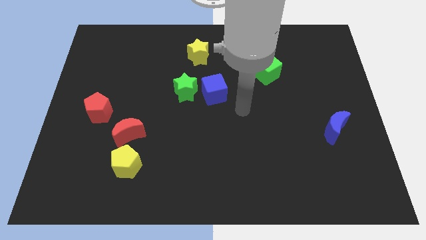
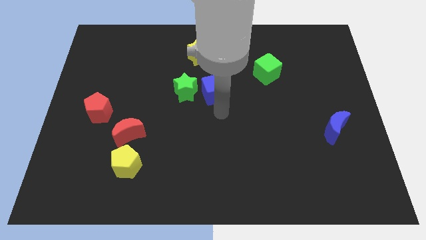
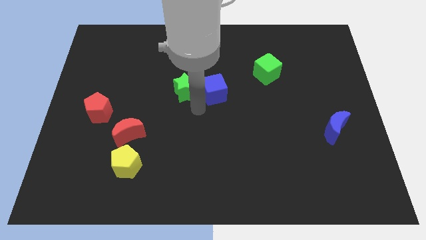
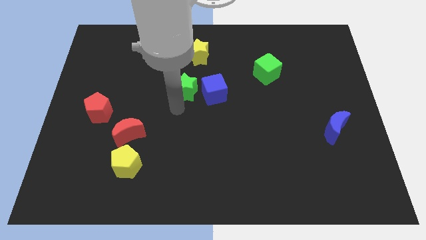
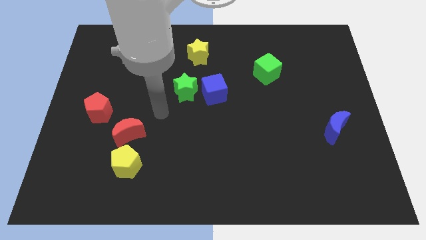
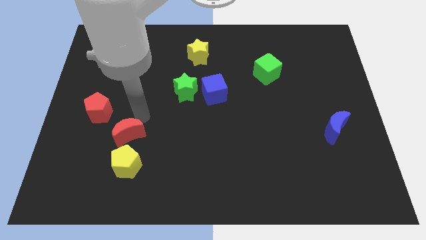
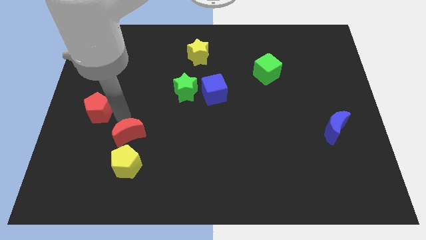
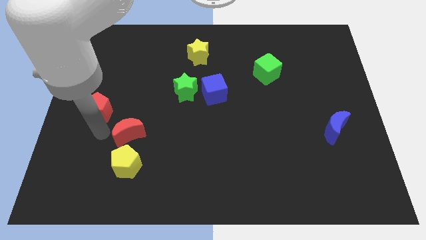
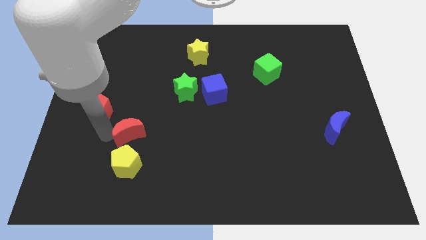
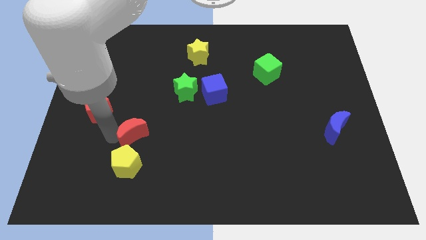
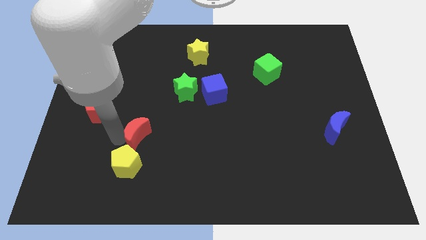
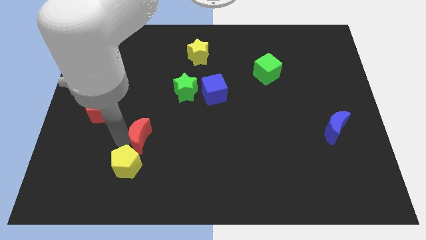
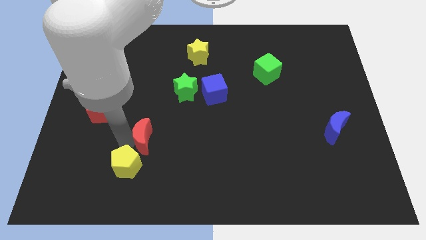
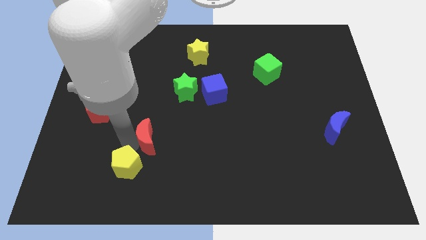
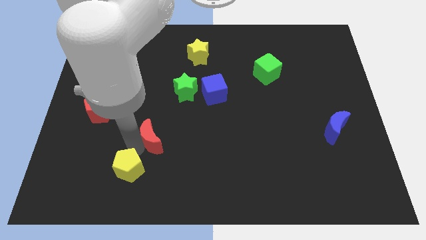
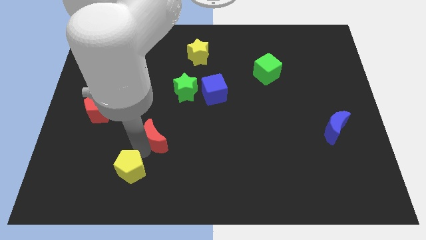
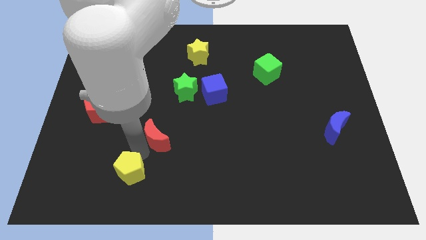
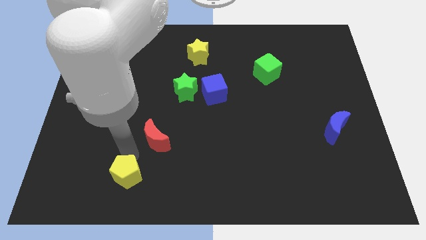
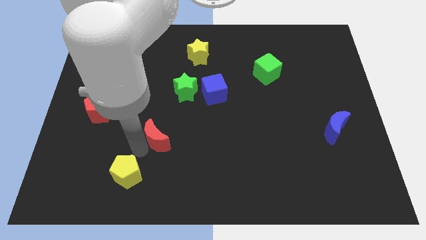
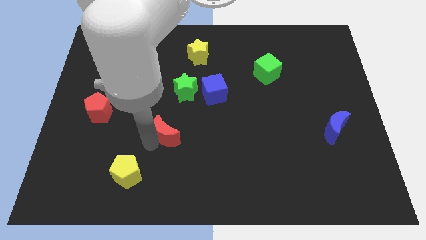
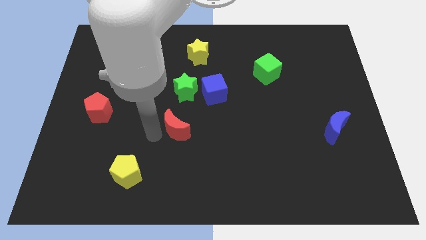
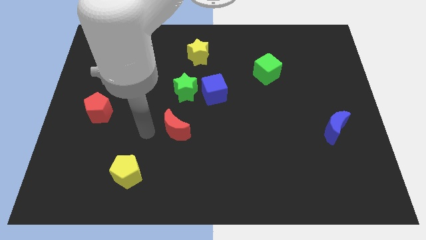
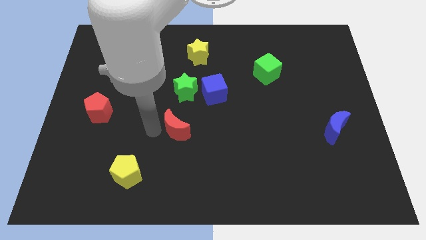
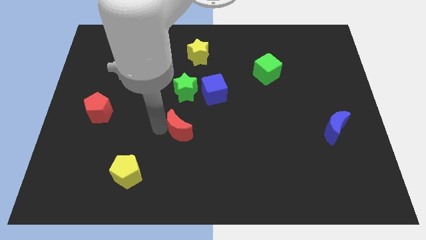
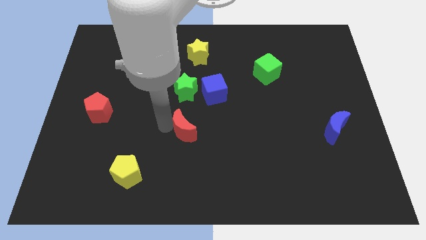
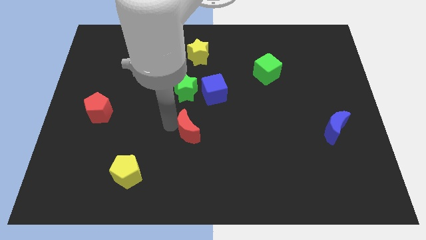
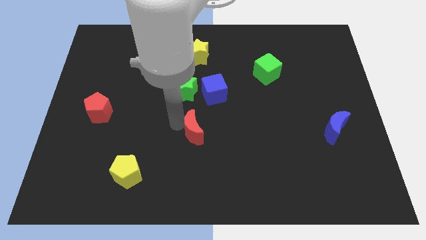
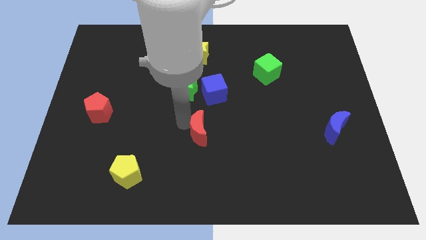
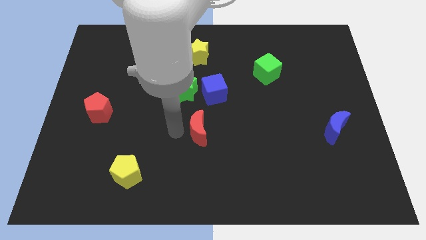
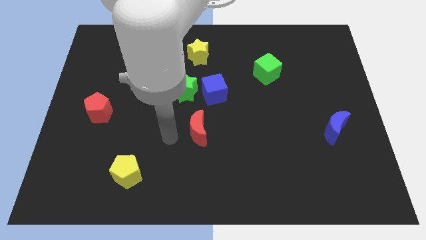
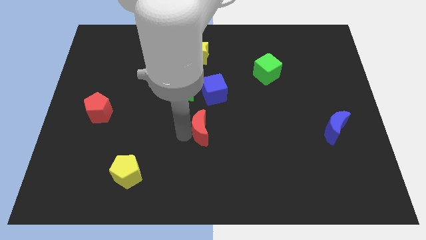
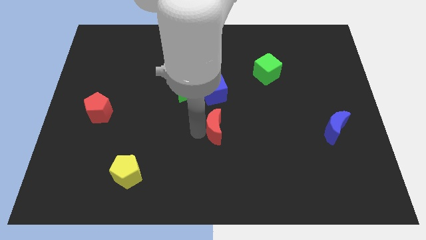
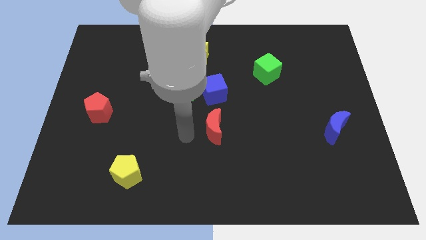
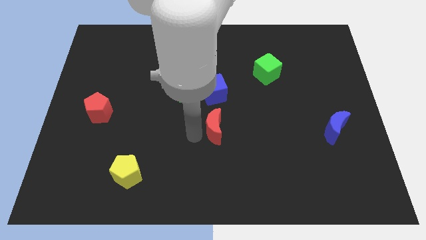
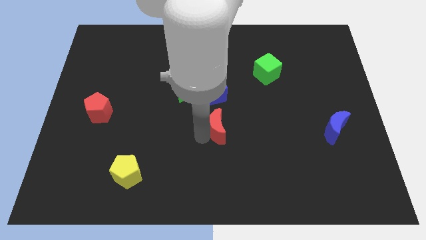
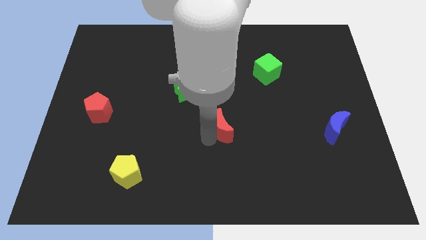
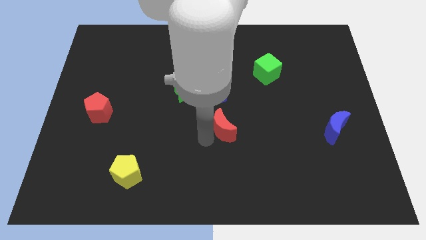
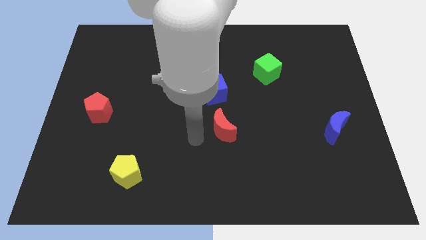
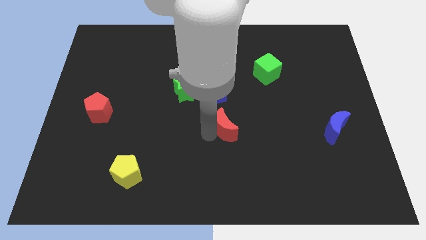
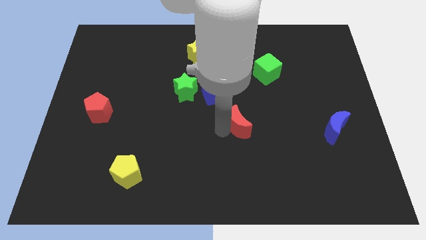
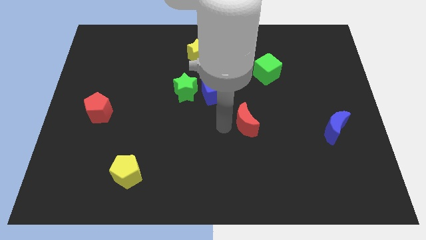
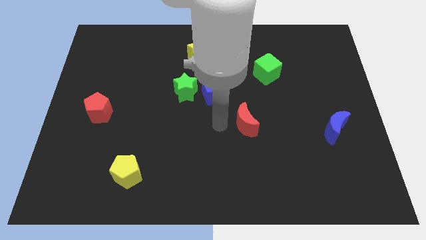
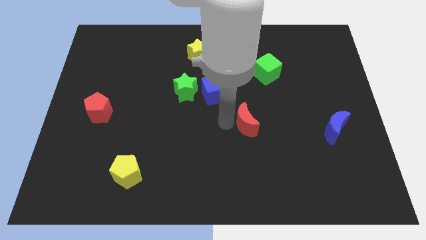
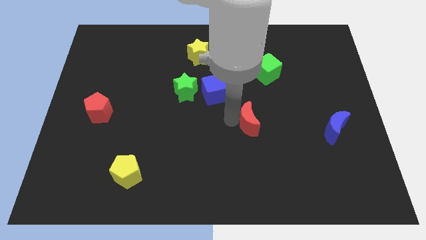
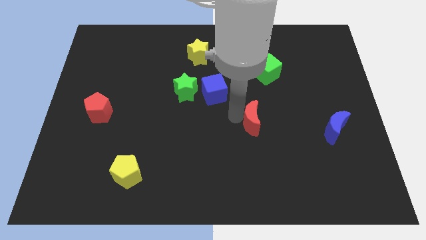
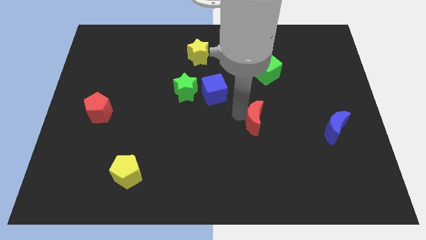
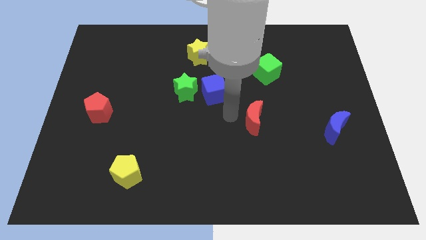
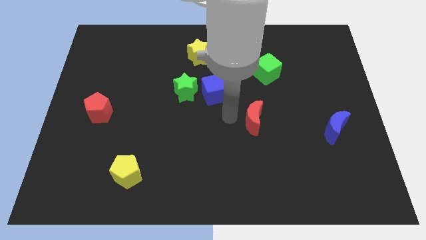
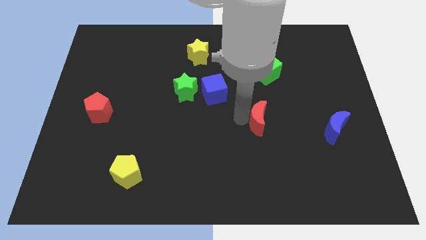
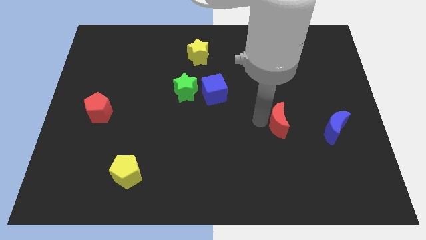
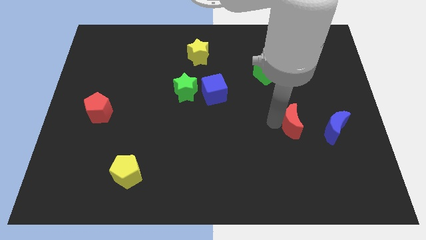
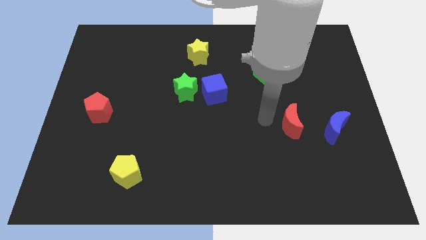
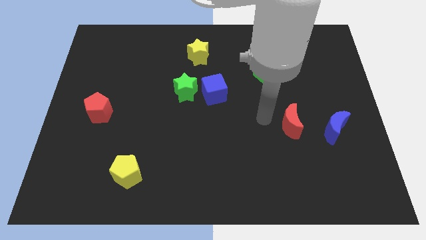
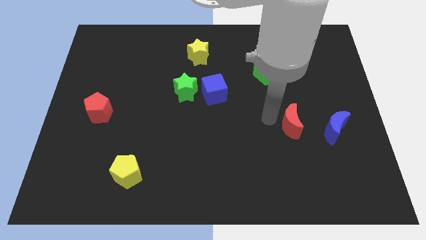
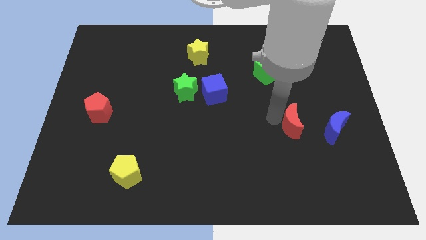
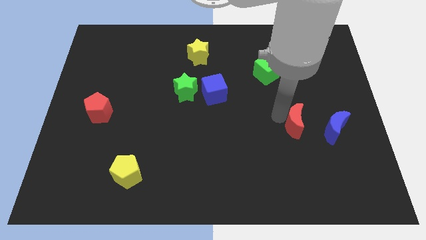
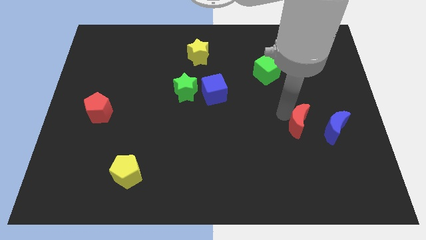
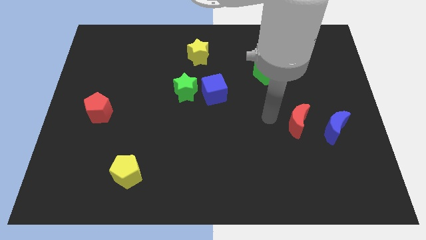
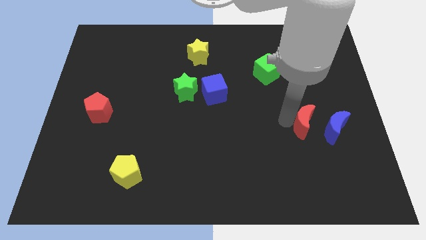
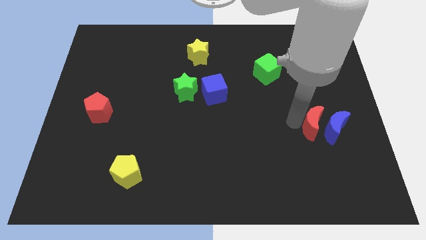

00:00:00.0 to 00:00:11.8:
move the red moon towards the blue moon
